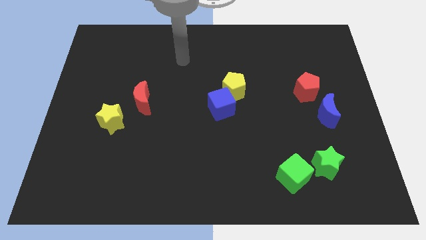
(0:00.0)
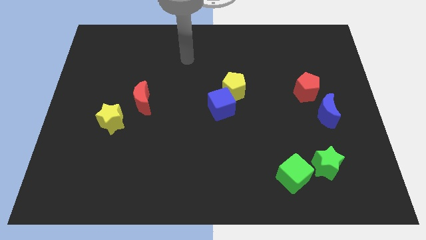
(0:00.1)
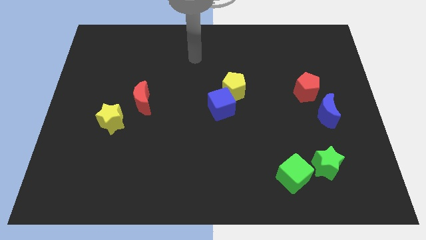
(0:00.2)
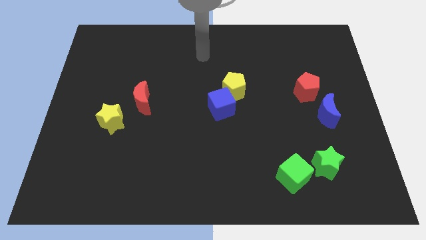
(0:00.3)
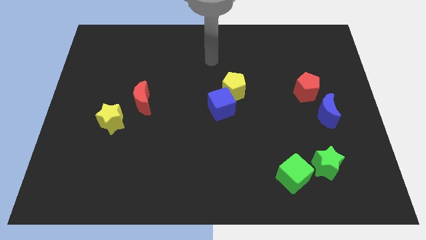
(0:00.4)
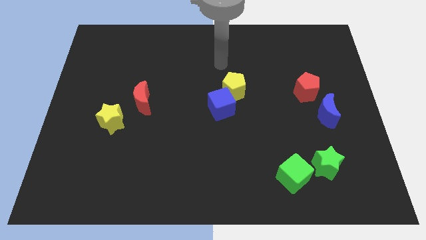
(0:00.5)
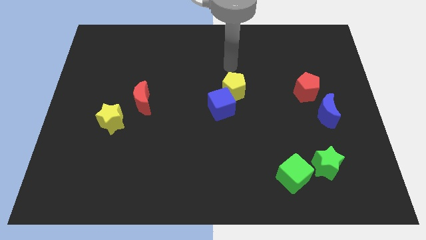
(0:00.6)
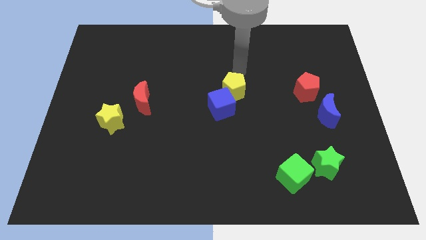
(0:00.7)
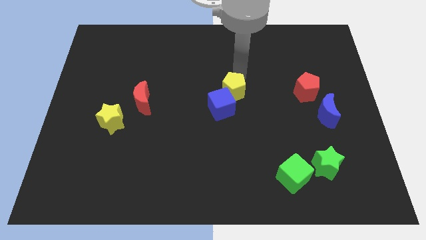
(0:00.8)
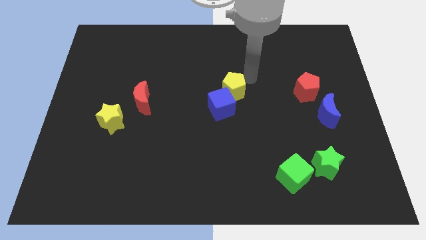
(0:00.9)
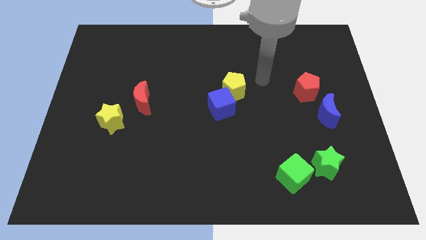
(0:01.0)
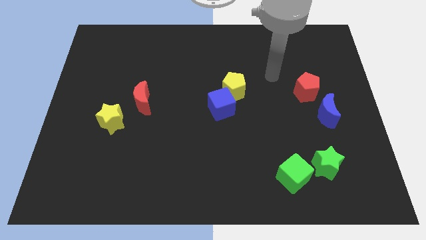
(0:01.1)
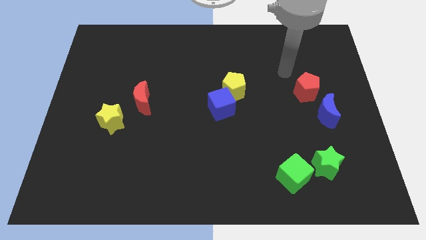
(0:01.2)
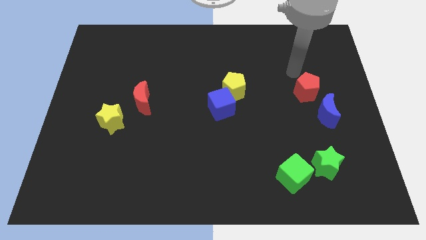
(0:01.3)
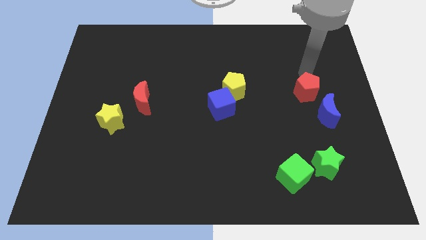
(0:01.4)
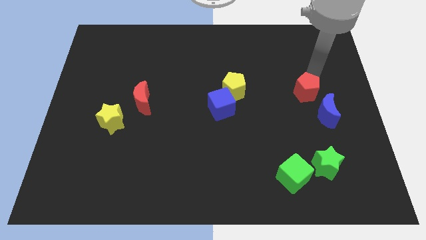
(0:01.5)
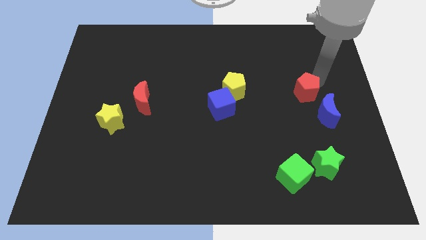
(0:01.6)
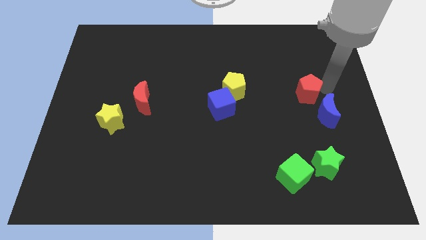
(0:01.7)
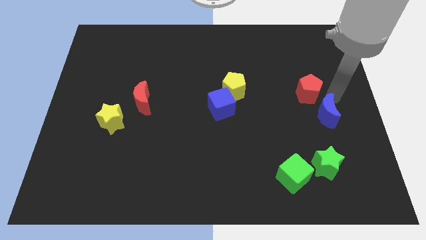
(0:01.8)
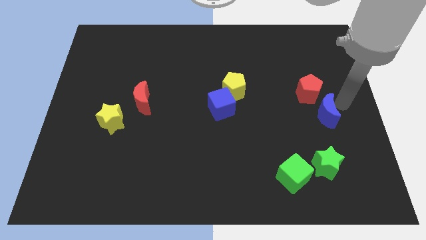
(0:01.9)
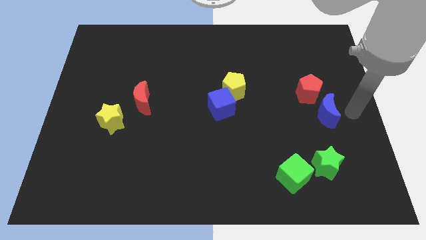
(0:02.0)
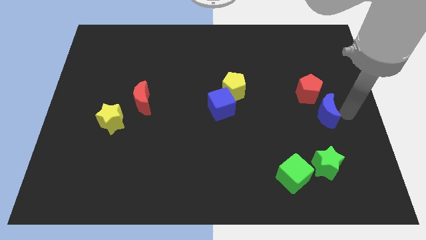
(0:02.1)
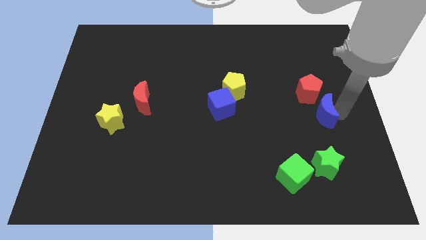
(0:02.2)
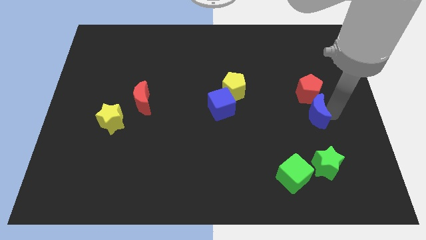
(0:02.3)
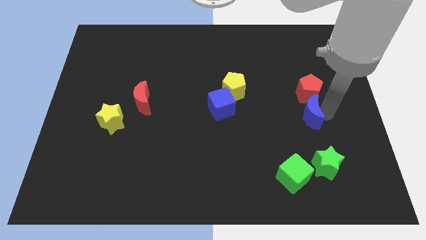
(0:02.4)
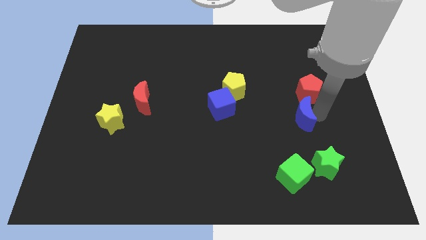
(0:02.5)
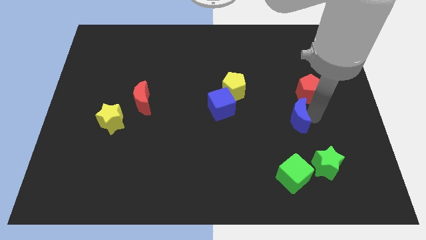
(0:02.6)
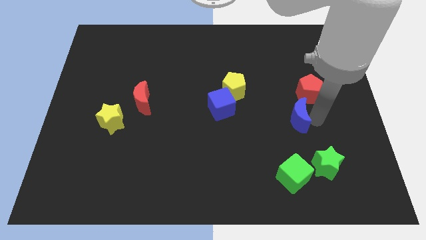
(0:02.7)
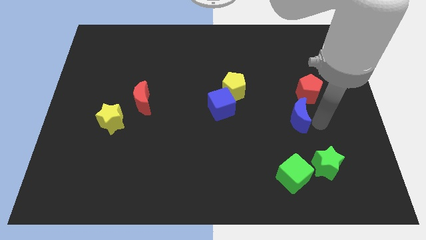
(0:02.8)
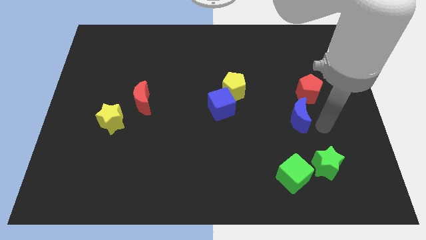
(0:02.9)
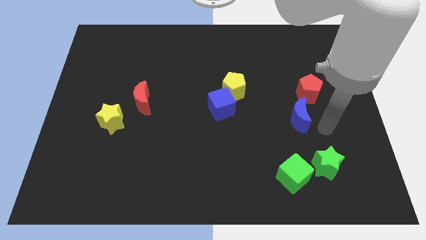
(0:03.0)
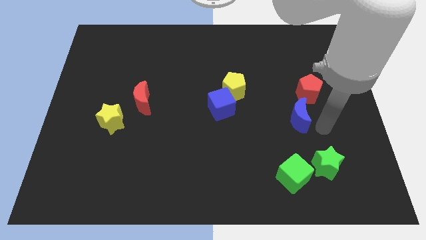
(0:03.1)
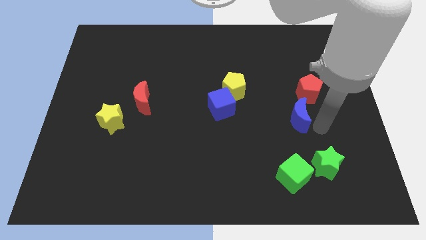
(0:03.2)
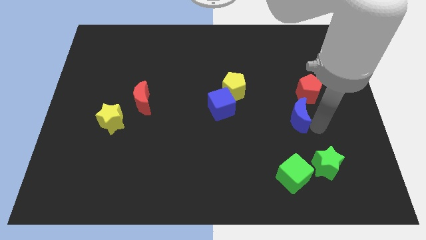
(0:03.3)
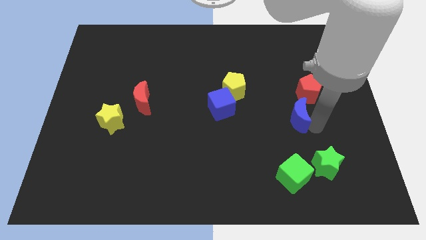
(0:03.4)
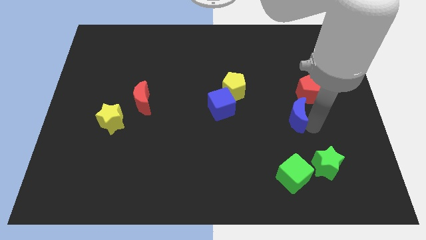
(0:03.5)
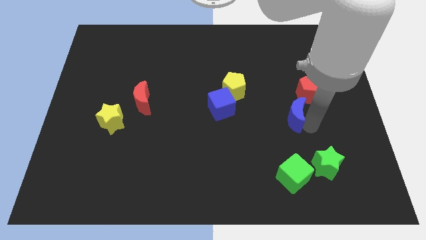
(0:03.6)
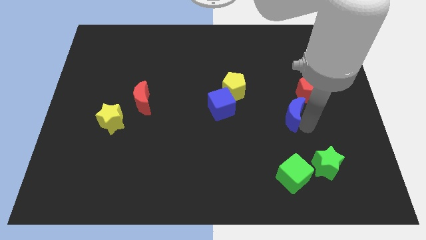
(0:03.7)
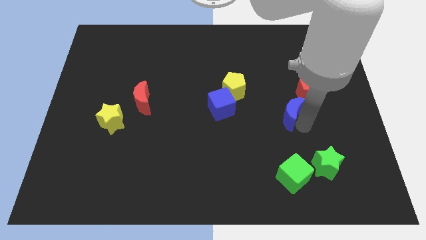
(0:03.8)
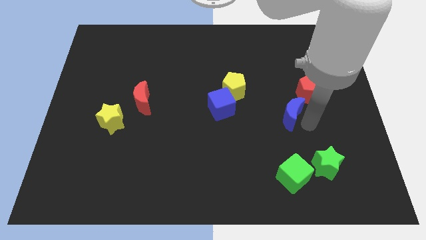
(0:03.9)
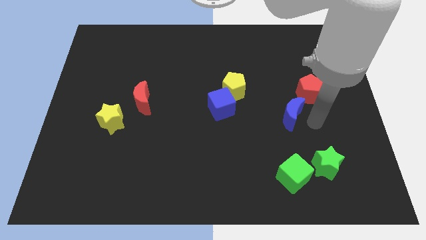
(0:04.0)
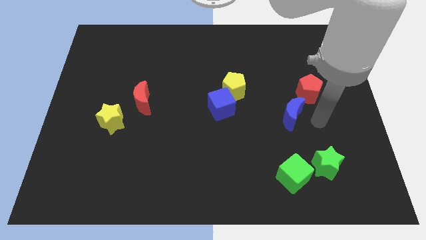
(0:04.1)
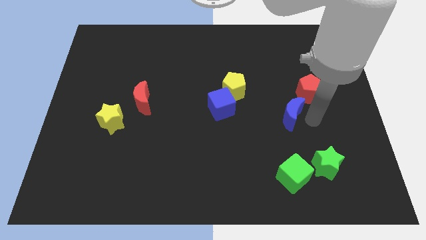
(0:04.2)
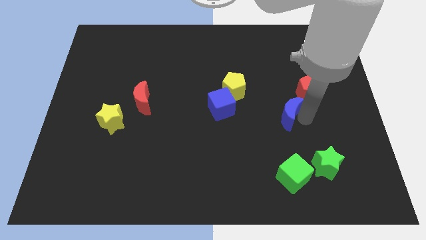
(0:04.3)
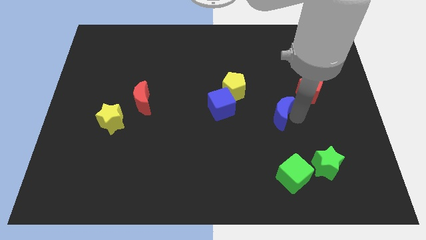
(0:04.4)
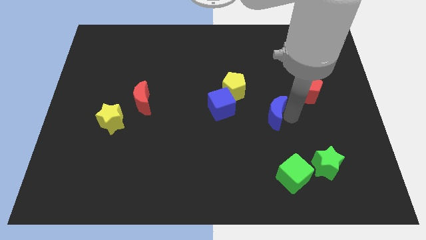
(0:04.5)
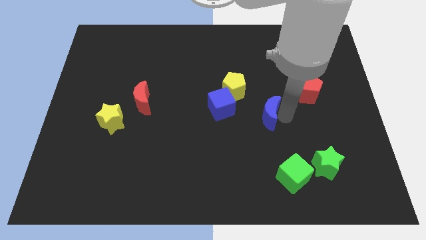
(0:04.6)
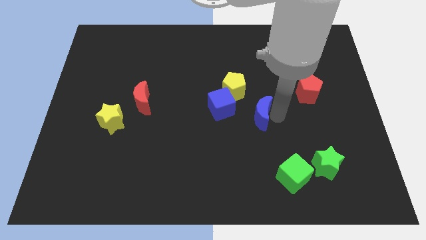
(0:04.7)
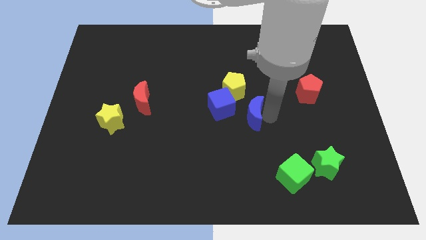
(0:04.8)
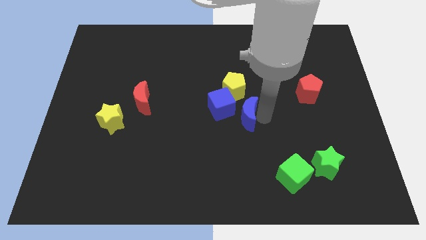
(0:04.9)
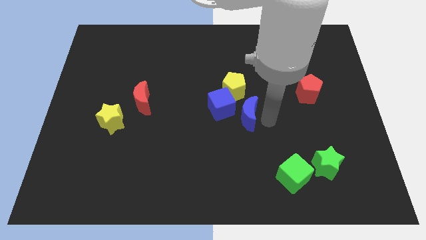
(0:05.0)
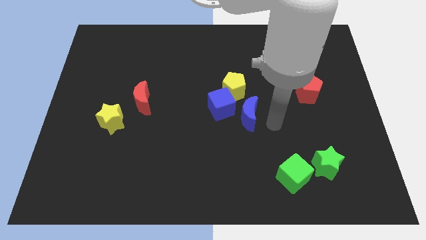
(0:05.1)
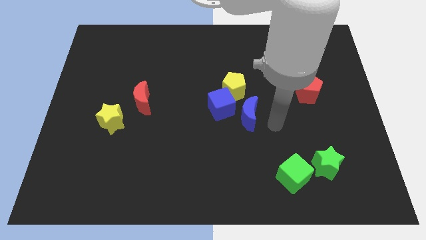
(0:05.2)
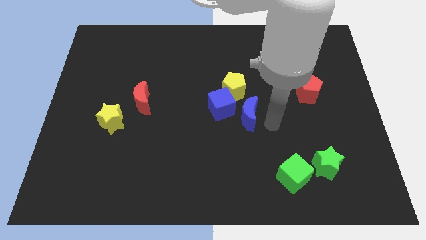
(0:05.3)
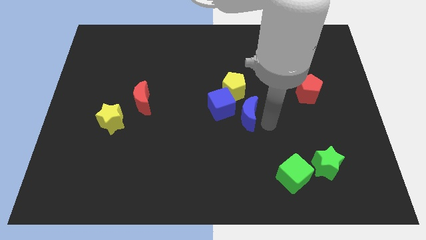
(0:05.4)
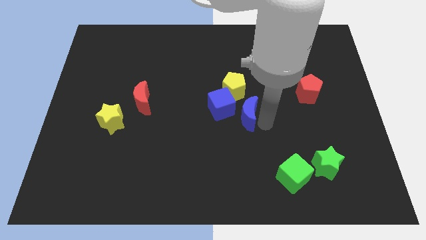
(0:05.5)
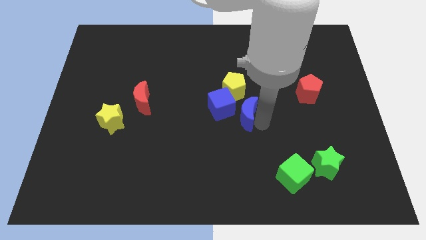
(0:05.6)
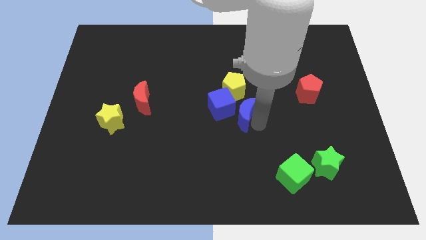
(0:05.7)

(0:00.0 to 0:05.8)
put the blue moon close to the blue cube

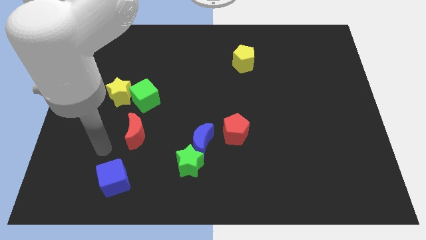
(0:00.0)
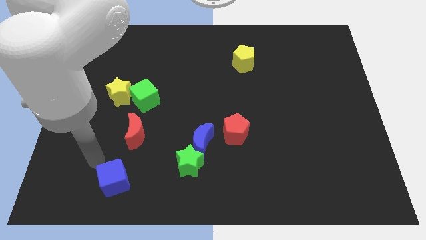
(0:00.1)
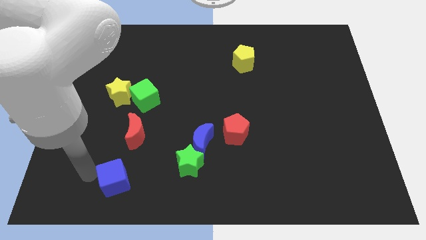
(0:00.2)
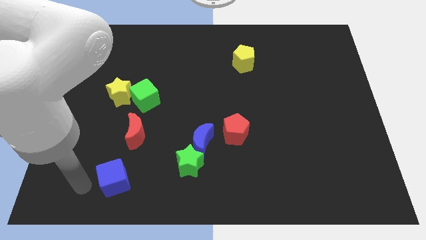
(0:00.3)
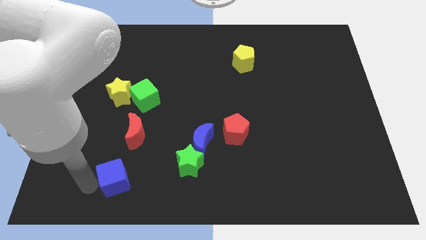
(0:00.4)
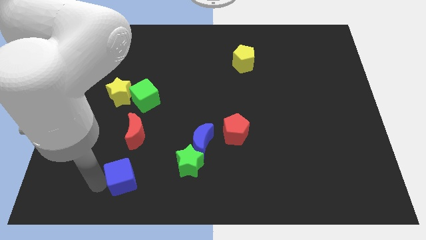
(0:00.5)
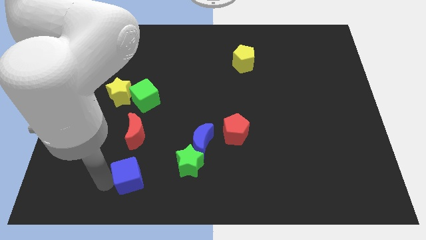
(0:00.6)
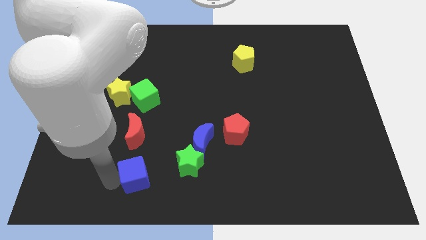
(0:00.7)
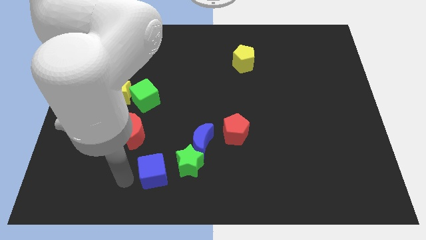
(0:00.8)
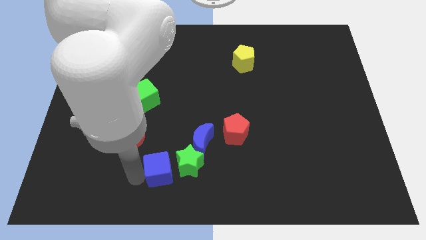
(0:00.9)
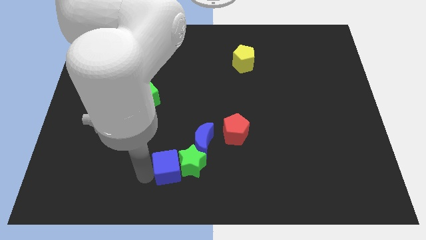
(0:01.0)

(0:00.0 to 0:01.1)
move the blue cube to the green star
